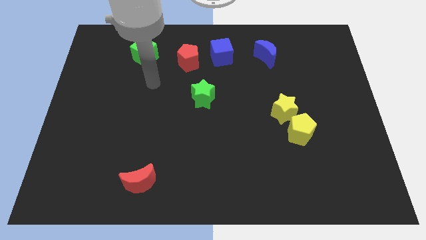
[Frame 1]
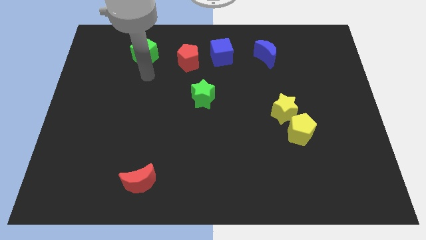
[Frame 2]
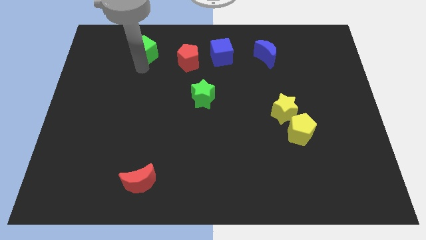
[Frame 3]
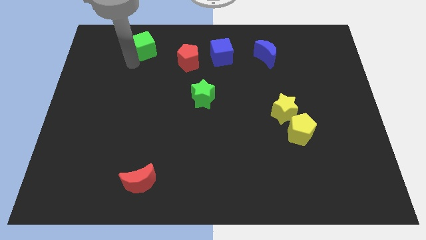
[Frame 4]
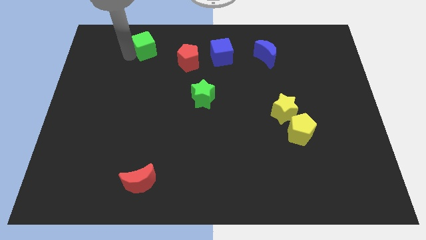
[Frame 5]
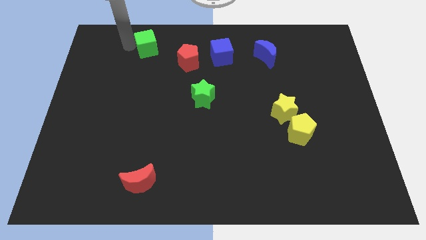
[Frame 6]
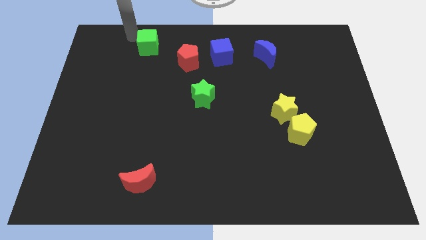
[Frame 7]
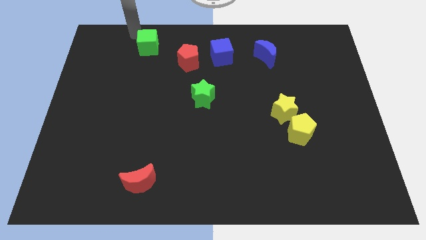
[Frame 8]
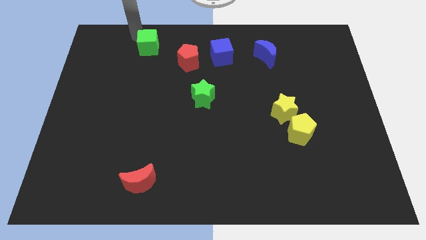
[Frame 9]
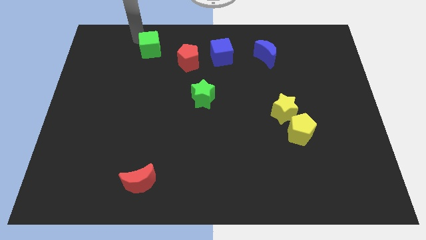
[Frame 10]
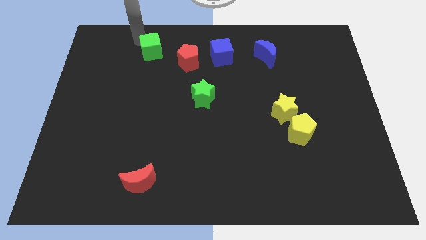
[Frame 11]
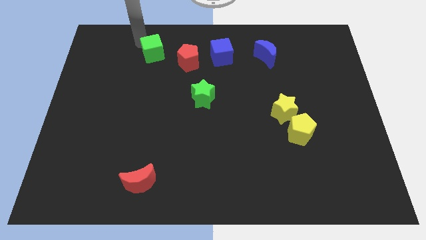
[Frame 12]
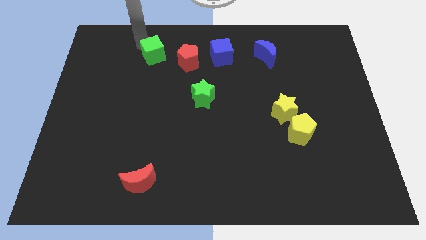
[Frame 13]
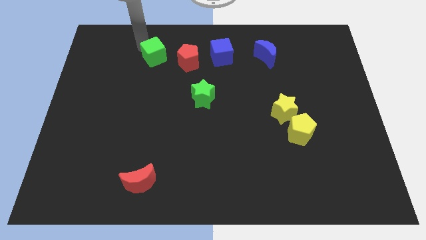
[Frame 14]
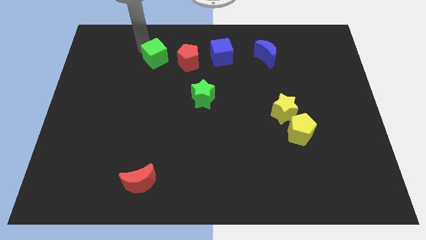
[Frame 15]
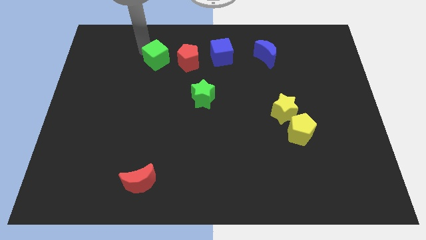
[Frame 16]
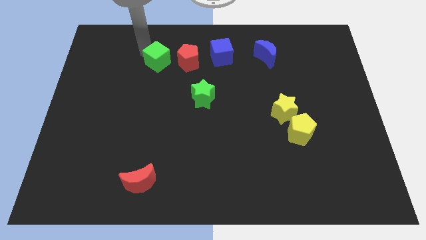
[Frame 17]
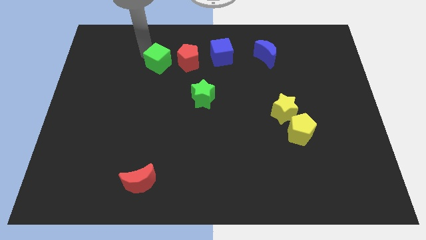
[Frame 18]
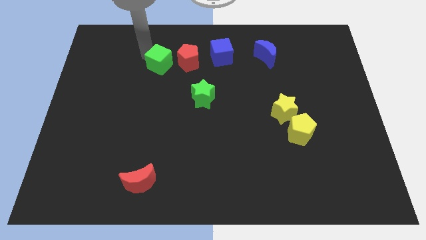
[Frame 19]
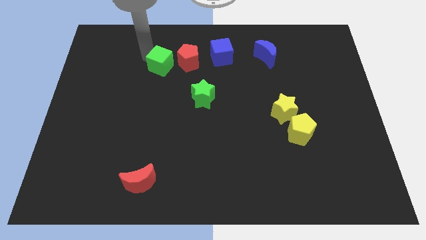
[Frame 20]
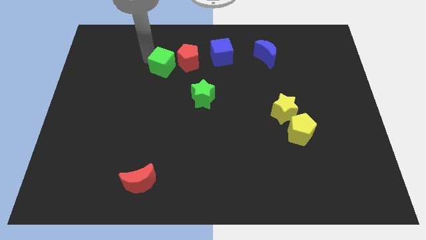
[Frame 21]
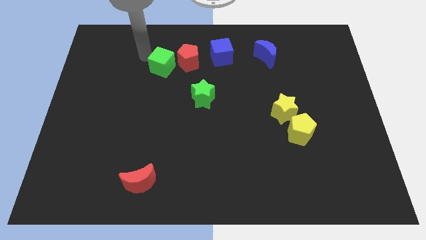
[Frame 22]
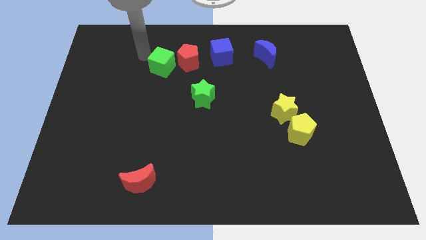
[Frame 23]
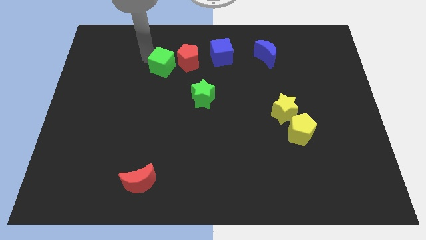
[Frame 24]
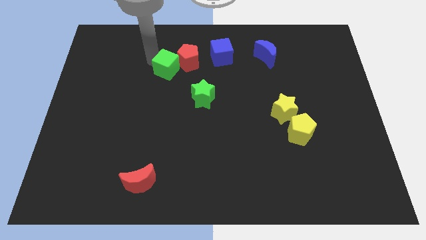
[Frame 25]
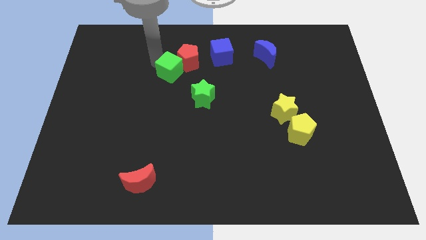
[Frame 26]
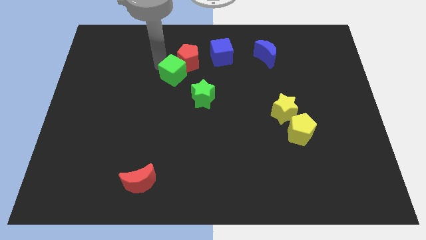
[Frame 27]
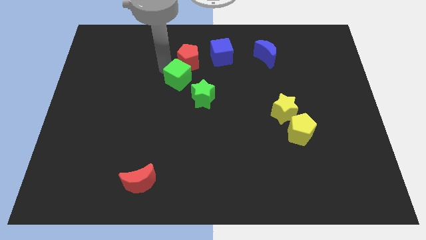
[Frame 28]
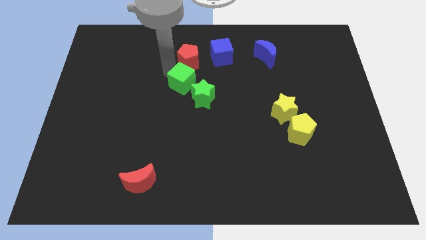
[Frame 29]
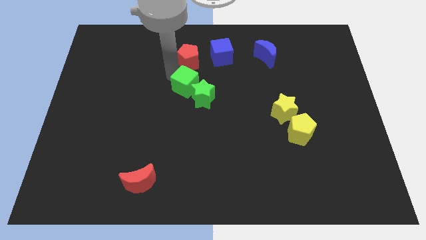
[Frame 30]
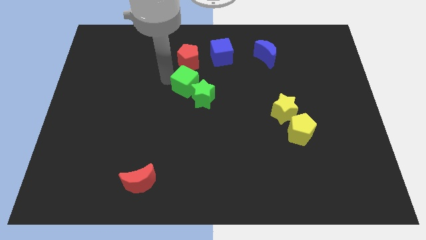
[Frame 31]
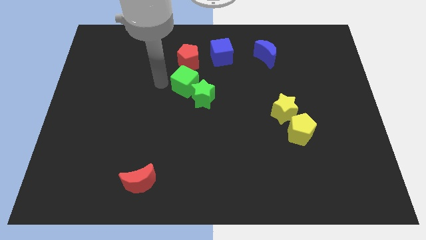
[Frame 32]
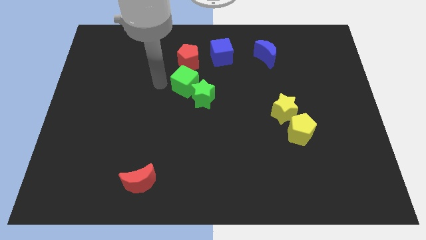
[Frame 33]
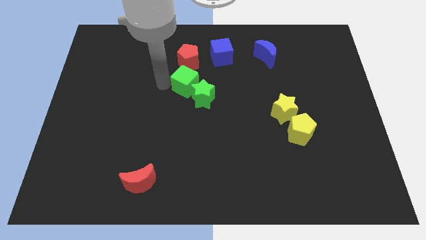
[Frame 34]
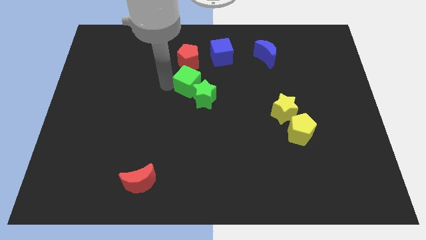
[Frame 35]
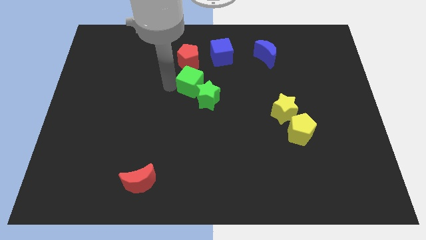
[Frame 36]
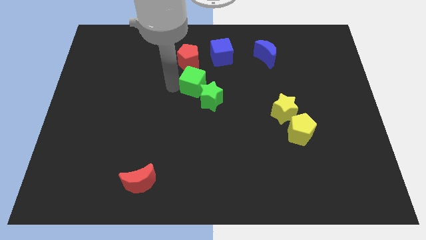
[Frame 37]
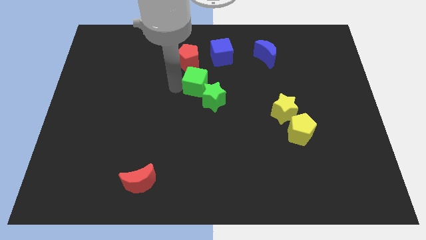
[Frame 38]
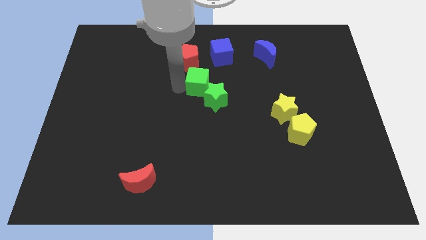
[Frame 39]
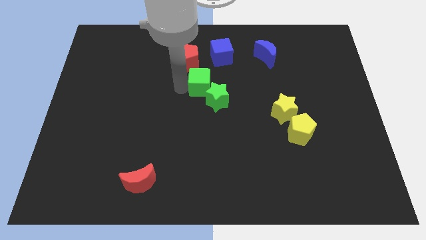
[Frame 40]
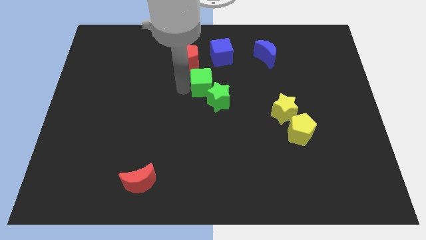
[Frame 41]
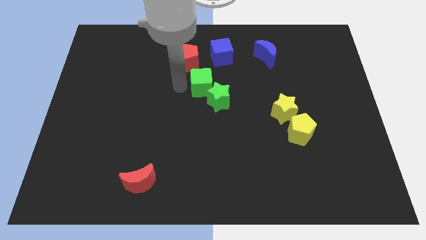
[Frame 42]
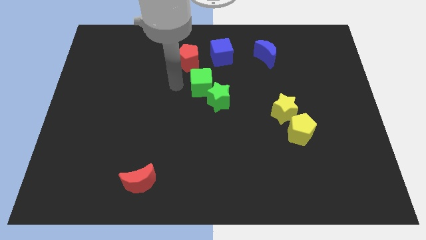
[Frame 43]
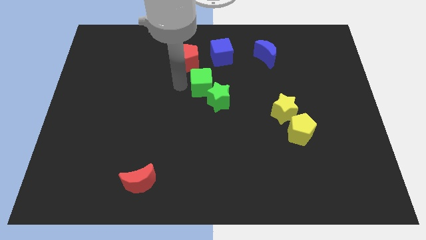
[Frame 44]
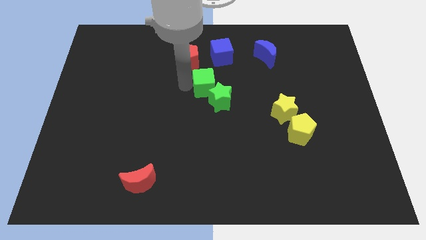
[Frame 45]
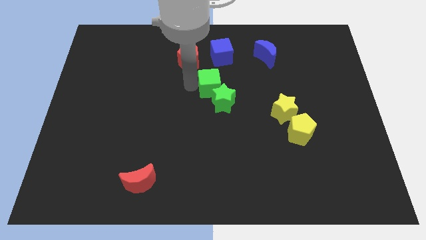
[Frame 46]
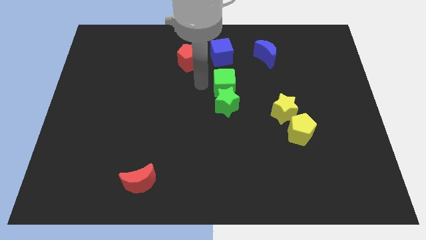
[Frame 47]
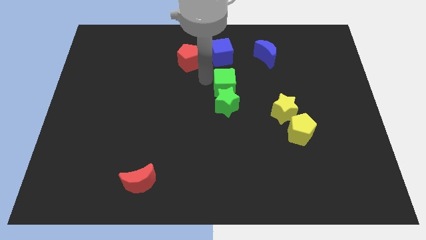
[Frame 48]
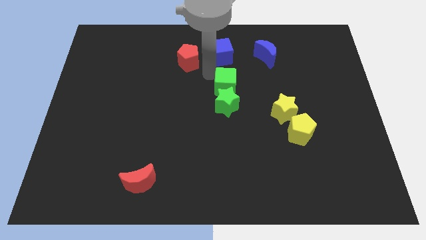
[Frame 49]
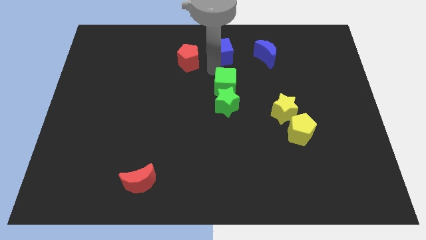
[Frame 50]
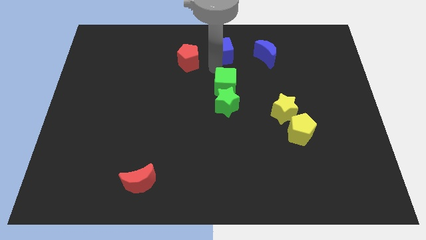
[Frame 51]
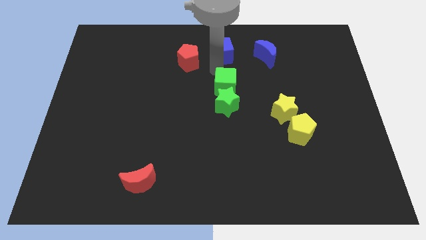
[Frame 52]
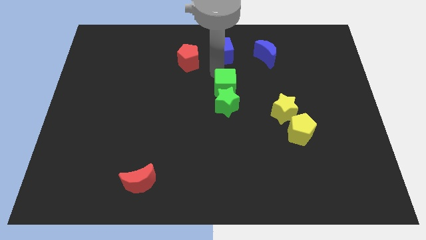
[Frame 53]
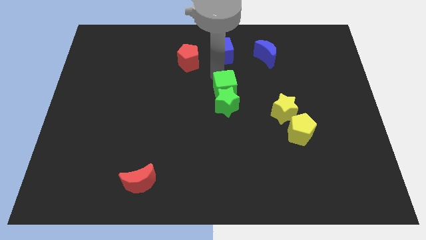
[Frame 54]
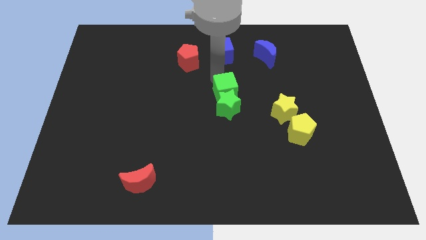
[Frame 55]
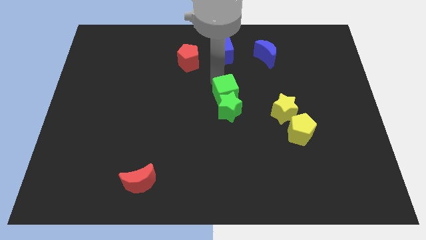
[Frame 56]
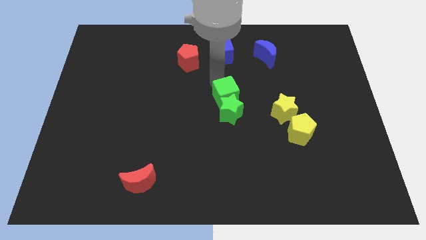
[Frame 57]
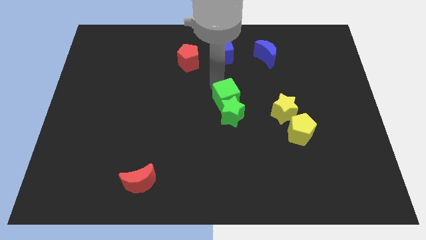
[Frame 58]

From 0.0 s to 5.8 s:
put the green cube to the left of the yellow star
